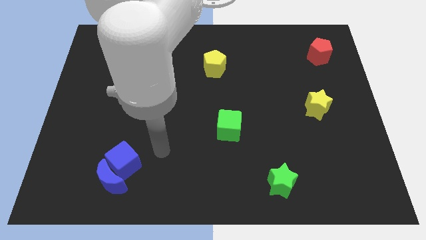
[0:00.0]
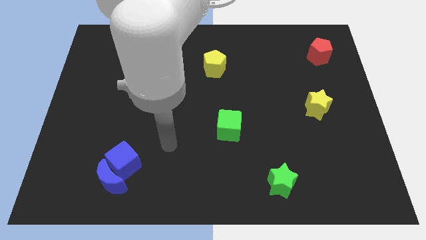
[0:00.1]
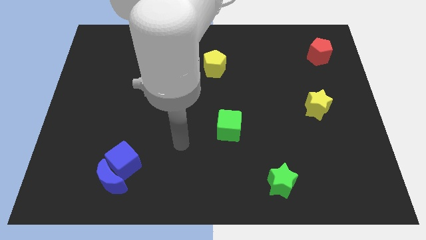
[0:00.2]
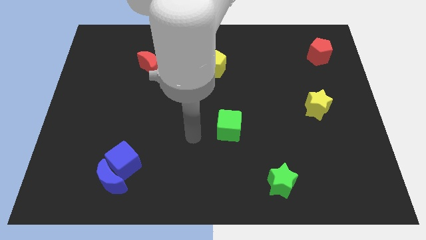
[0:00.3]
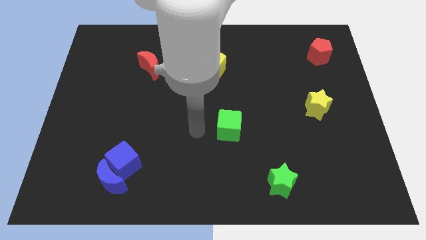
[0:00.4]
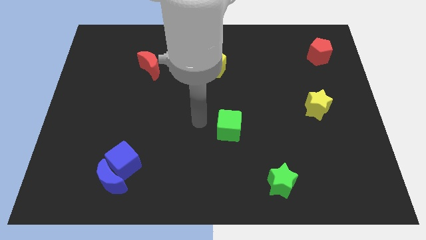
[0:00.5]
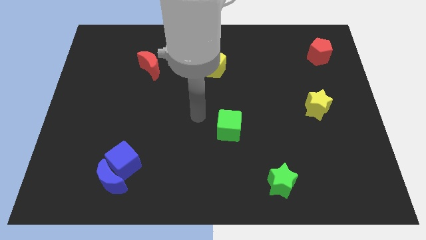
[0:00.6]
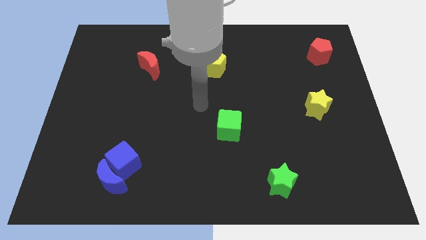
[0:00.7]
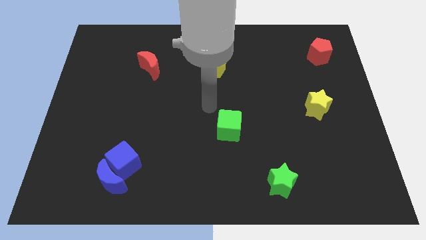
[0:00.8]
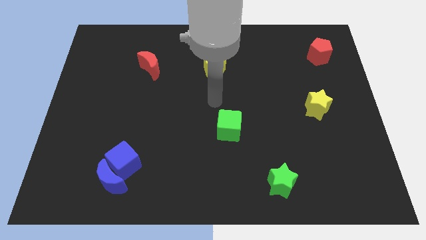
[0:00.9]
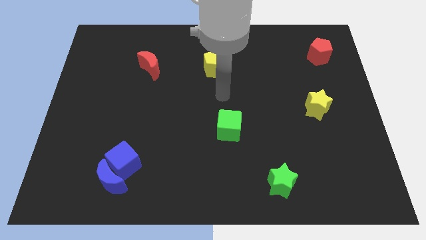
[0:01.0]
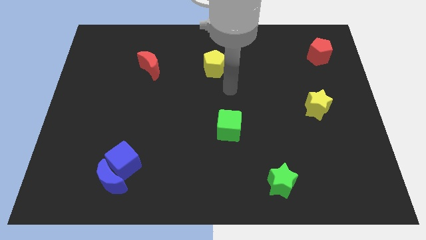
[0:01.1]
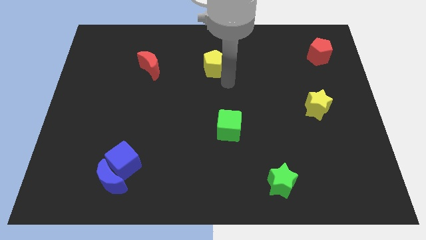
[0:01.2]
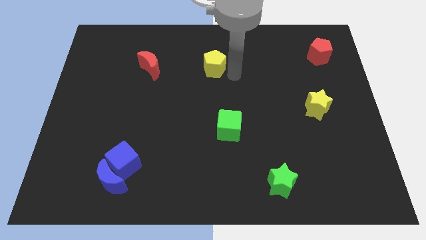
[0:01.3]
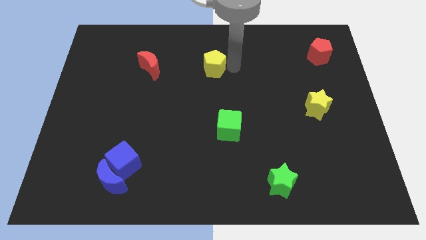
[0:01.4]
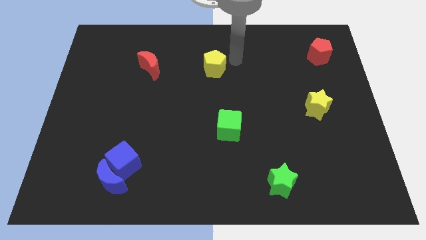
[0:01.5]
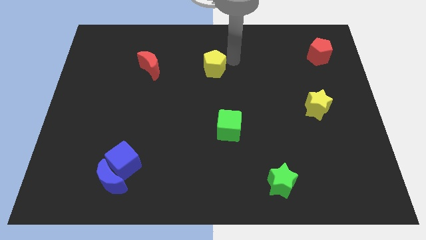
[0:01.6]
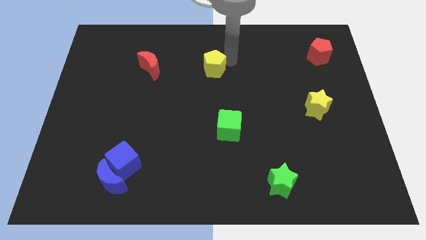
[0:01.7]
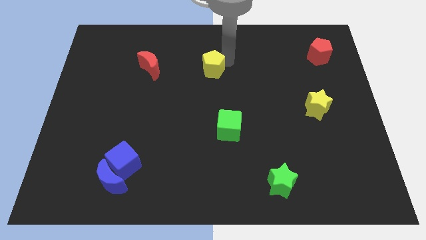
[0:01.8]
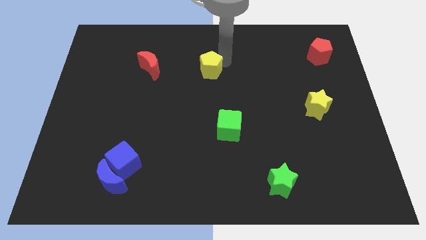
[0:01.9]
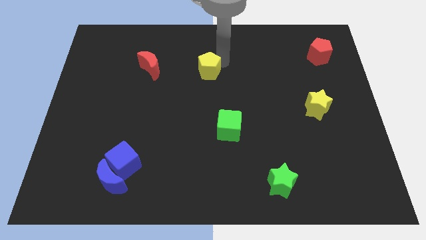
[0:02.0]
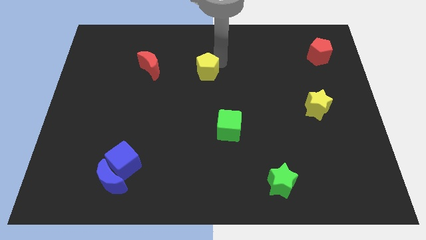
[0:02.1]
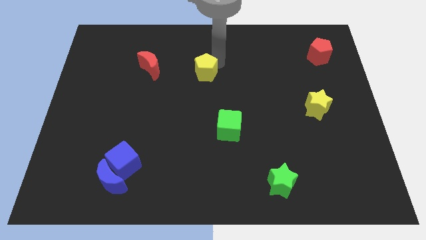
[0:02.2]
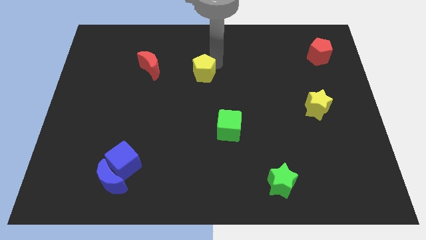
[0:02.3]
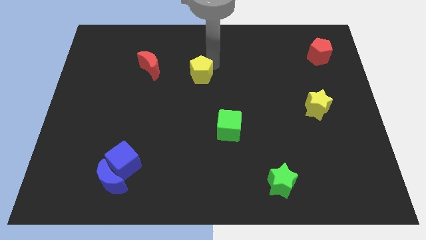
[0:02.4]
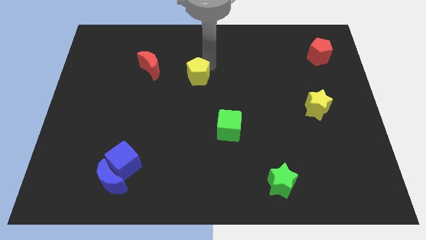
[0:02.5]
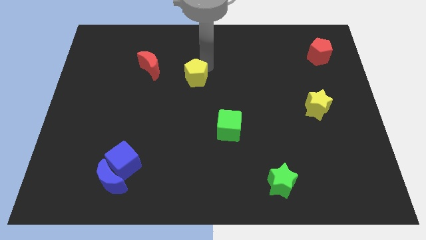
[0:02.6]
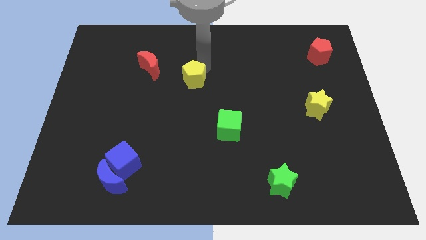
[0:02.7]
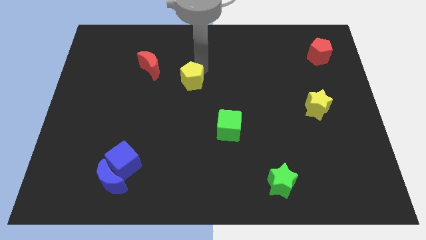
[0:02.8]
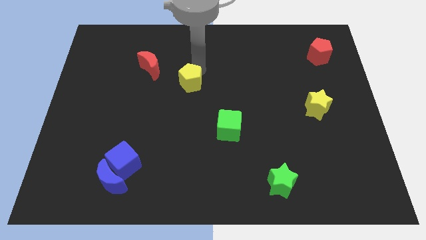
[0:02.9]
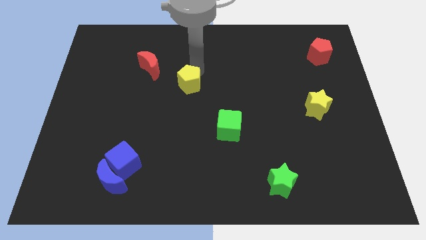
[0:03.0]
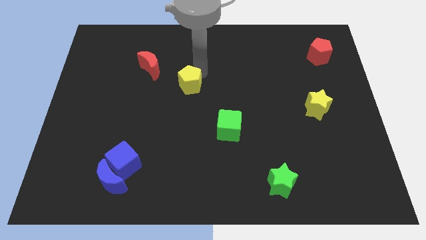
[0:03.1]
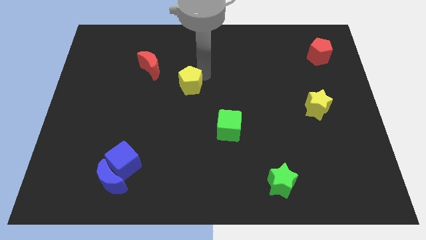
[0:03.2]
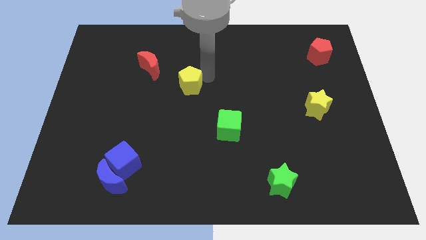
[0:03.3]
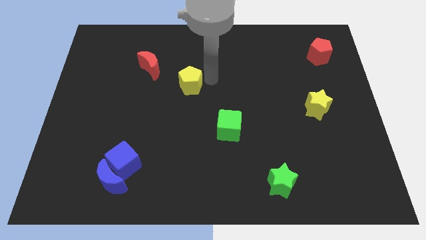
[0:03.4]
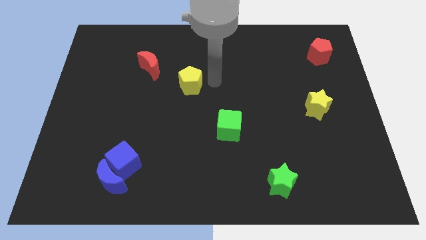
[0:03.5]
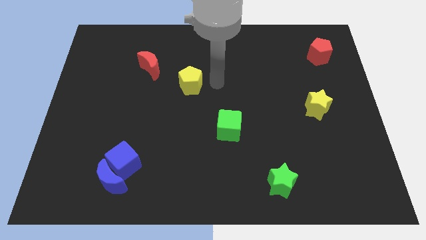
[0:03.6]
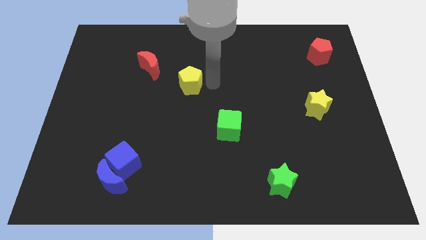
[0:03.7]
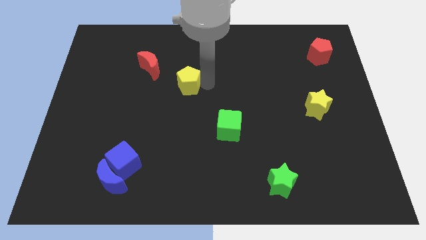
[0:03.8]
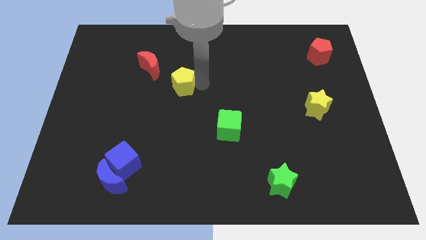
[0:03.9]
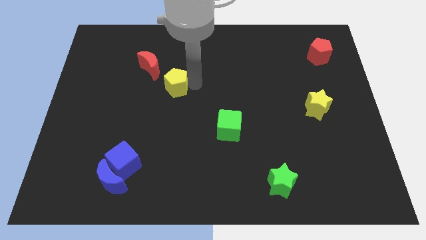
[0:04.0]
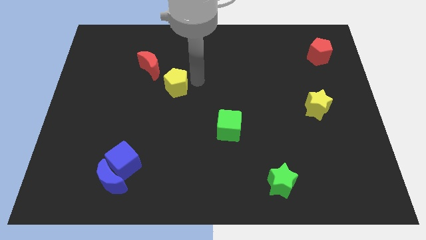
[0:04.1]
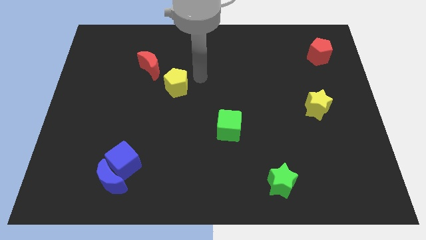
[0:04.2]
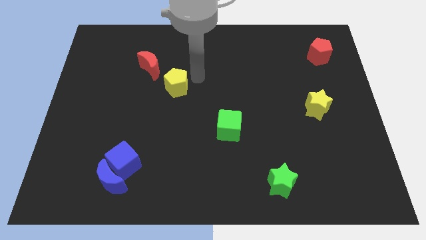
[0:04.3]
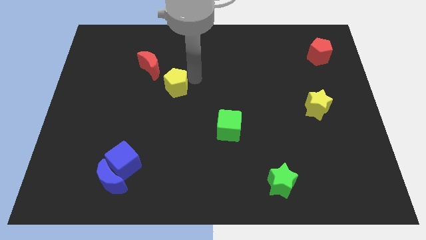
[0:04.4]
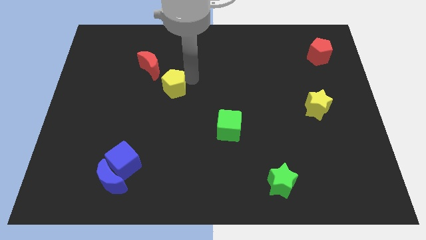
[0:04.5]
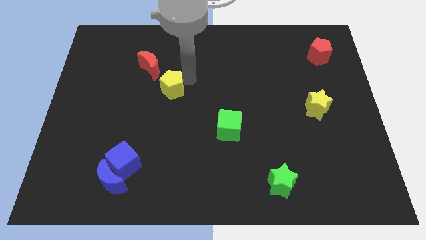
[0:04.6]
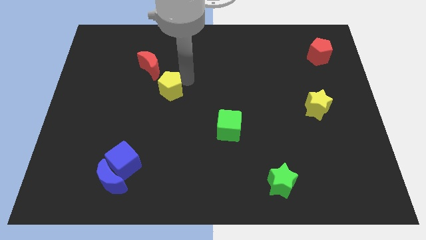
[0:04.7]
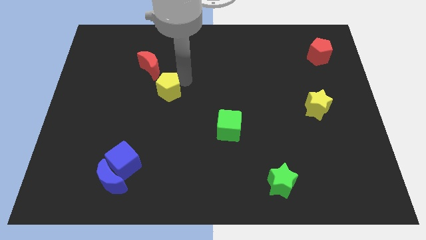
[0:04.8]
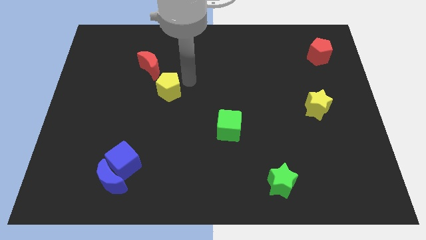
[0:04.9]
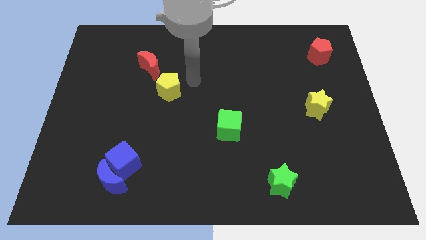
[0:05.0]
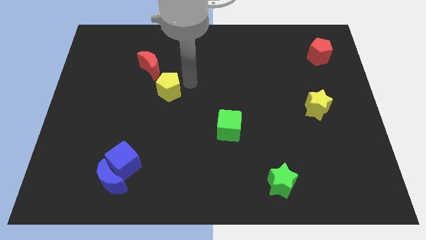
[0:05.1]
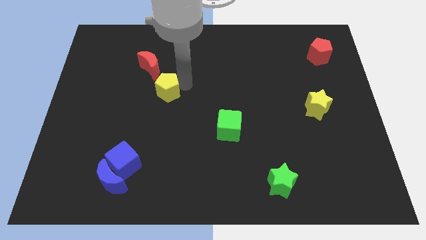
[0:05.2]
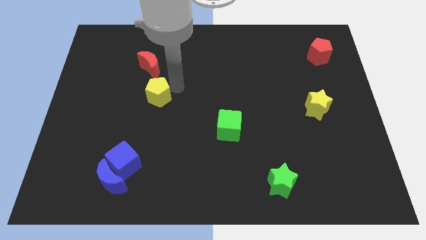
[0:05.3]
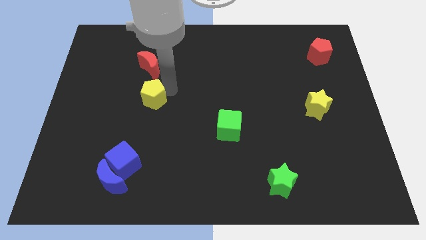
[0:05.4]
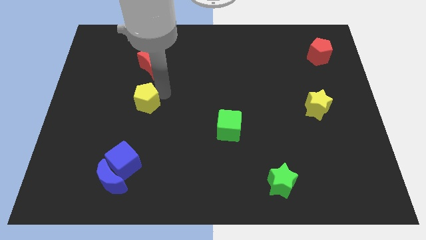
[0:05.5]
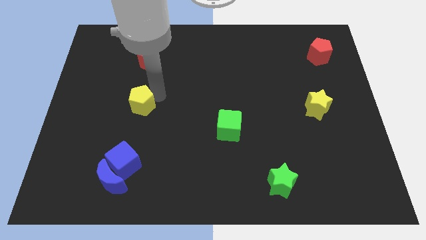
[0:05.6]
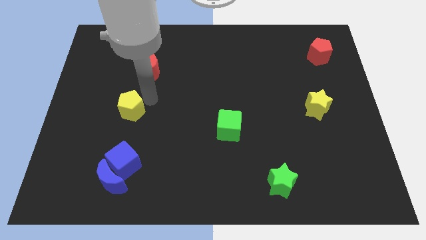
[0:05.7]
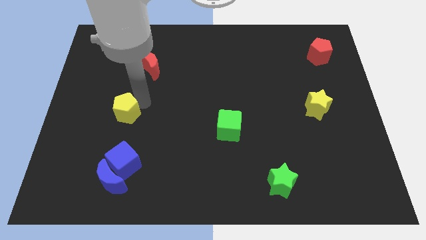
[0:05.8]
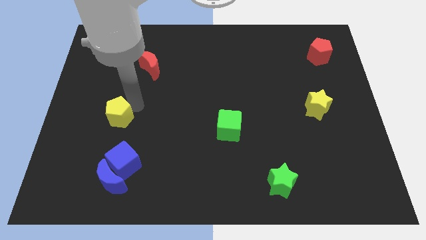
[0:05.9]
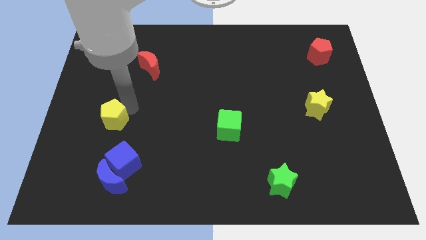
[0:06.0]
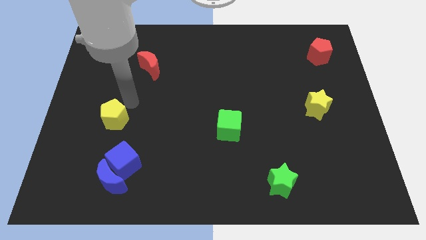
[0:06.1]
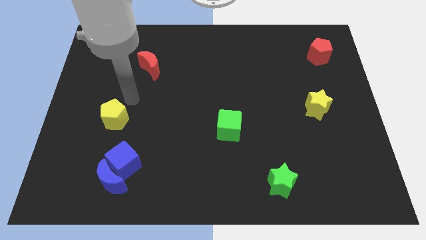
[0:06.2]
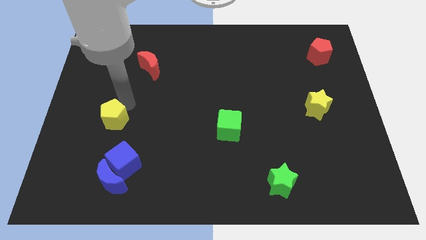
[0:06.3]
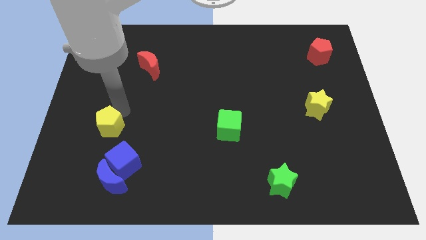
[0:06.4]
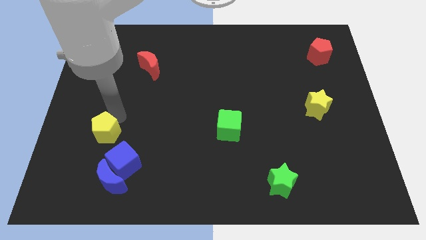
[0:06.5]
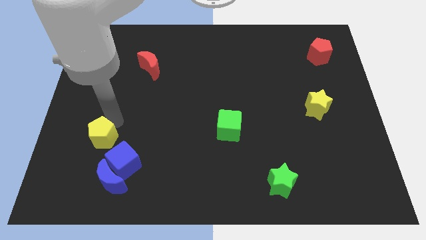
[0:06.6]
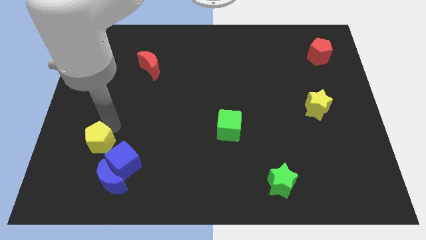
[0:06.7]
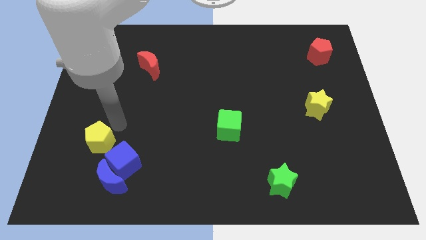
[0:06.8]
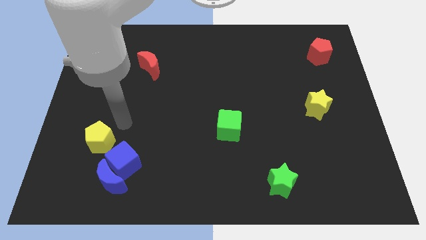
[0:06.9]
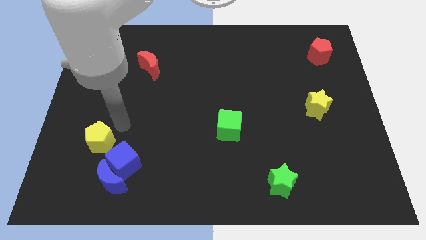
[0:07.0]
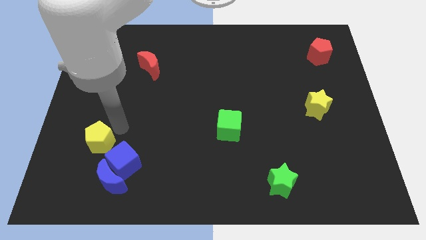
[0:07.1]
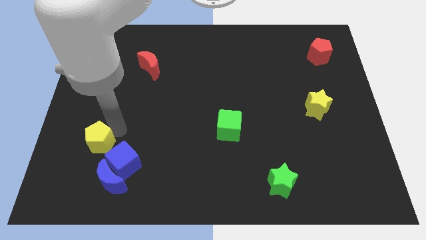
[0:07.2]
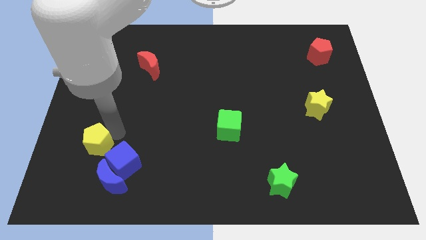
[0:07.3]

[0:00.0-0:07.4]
push the yellow pentagon left of the blue cube
